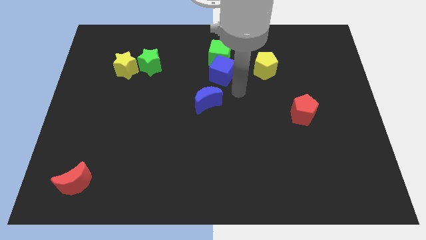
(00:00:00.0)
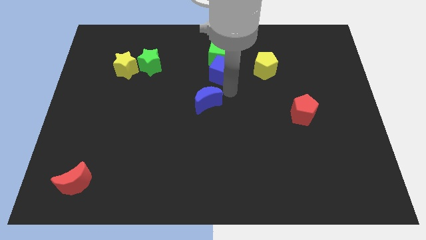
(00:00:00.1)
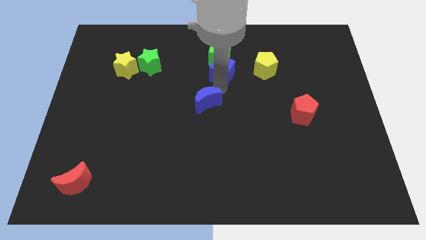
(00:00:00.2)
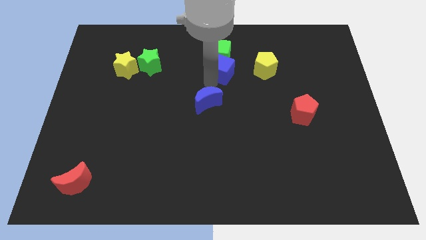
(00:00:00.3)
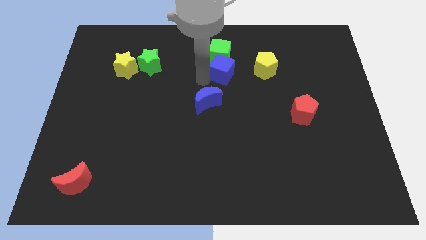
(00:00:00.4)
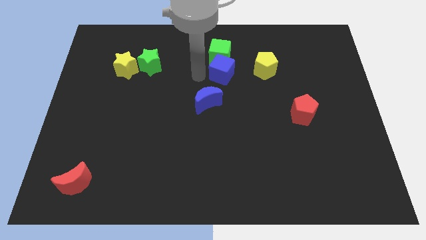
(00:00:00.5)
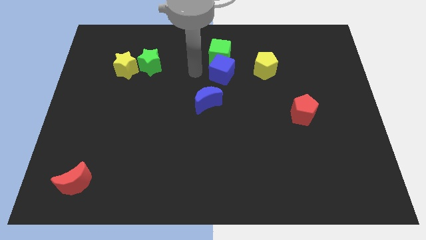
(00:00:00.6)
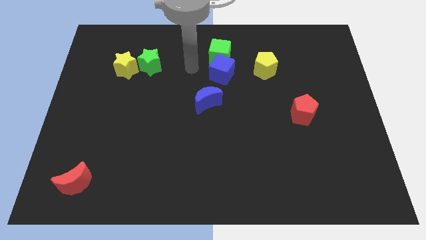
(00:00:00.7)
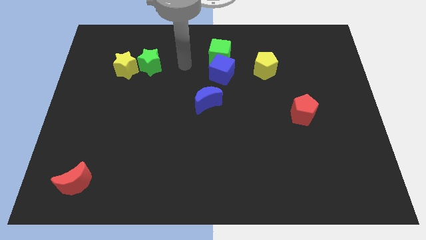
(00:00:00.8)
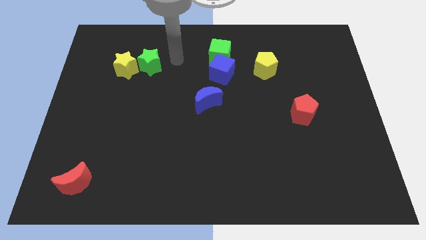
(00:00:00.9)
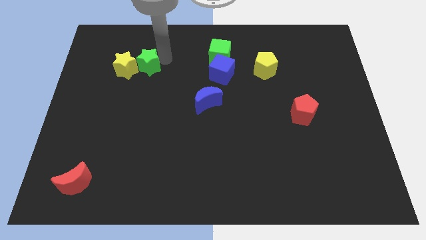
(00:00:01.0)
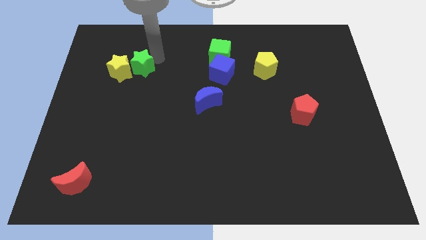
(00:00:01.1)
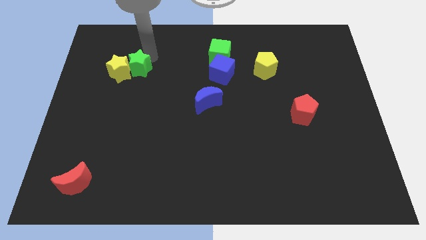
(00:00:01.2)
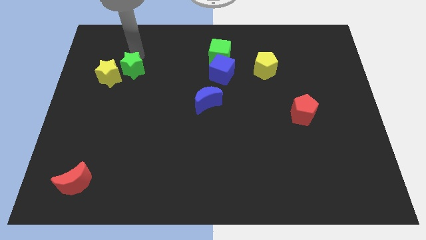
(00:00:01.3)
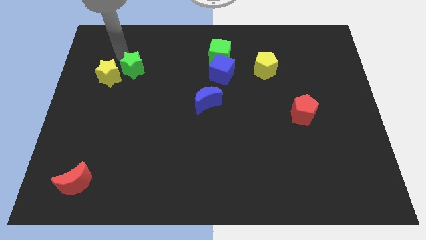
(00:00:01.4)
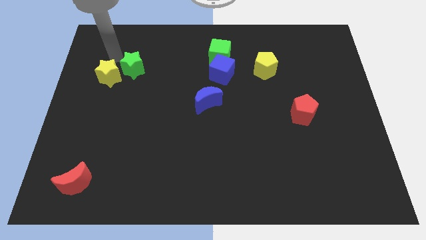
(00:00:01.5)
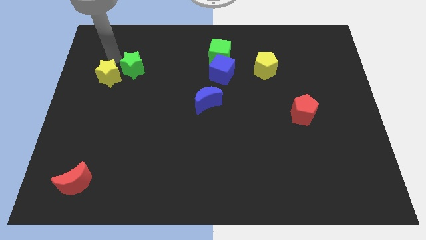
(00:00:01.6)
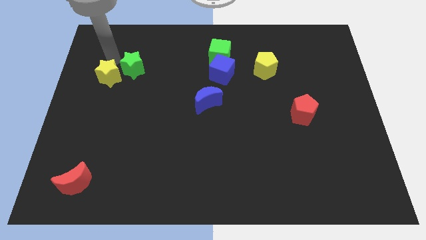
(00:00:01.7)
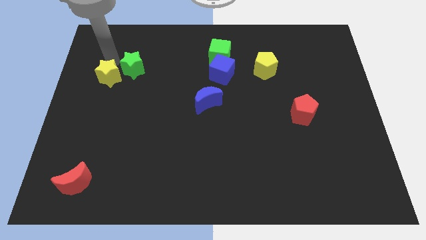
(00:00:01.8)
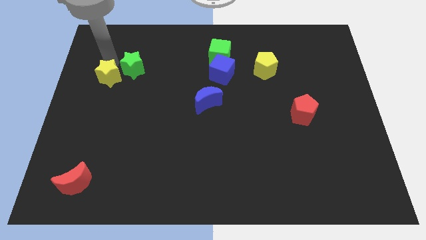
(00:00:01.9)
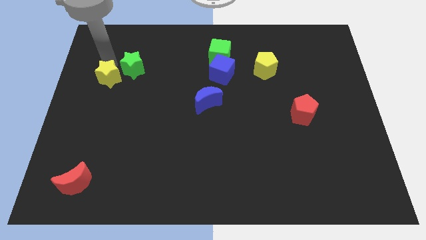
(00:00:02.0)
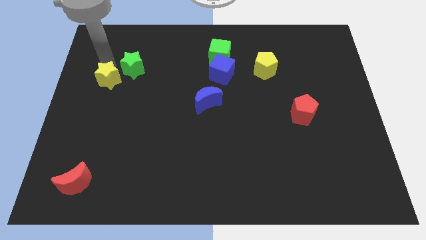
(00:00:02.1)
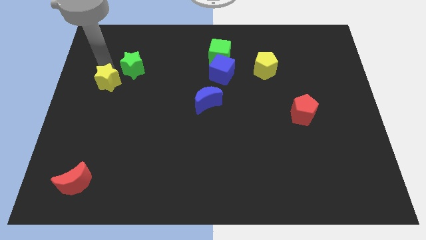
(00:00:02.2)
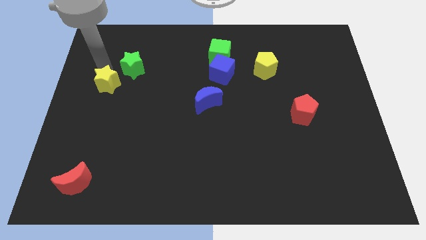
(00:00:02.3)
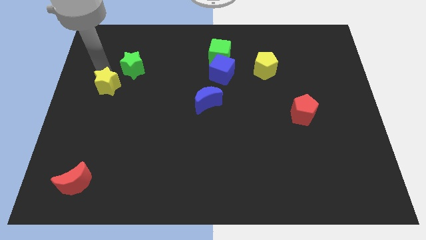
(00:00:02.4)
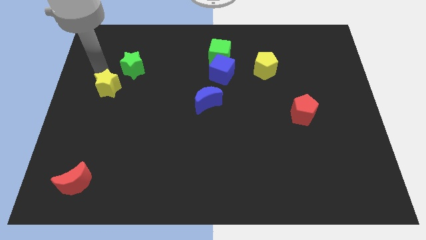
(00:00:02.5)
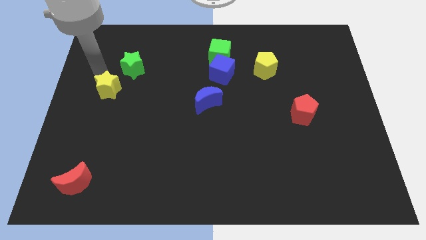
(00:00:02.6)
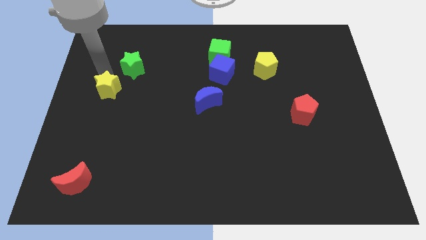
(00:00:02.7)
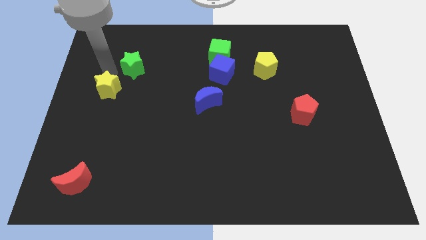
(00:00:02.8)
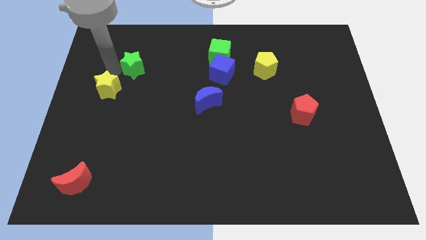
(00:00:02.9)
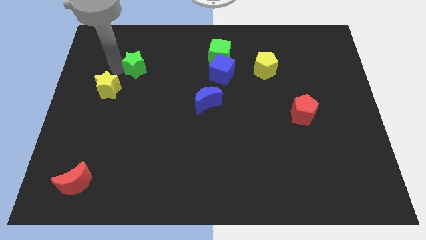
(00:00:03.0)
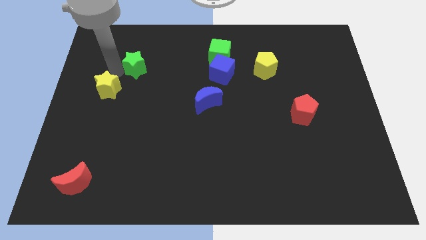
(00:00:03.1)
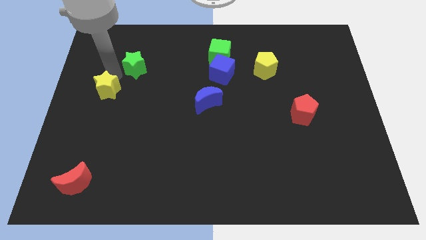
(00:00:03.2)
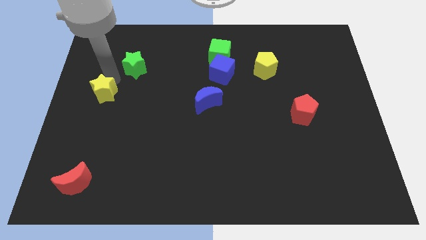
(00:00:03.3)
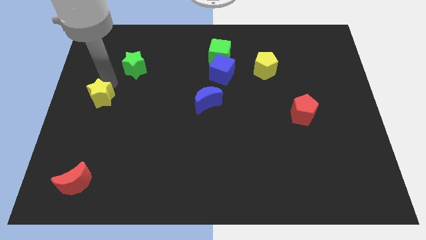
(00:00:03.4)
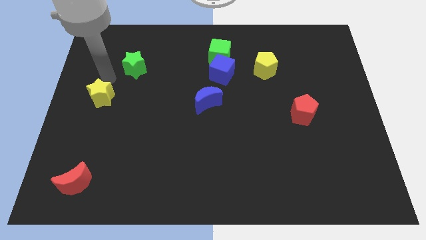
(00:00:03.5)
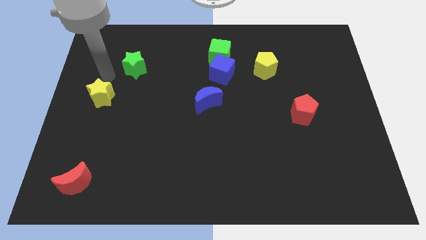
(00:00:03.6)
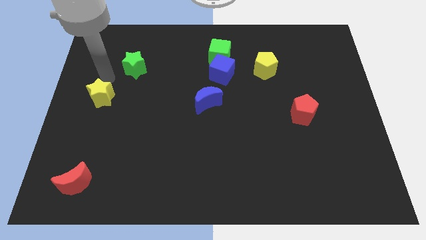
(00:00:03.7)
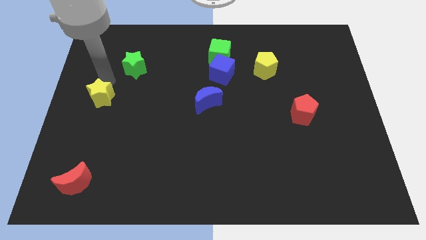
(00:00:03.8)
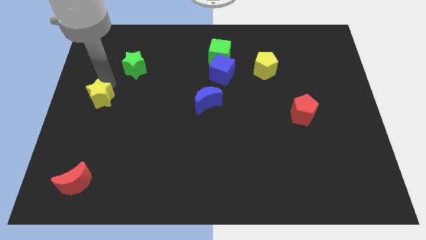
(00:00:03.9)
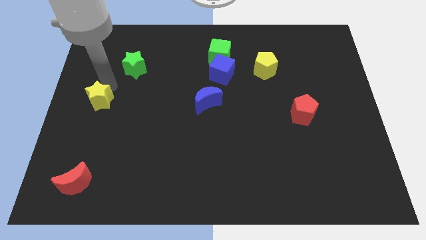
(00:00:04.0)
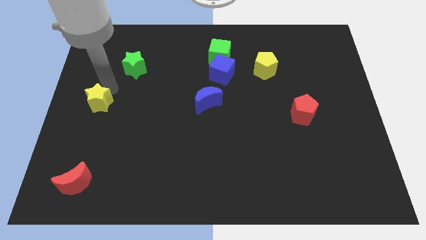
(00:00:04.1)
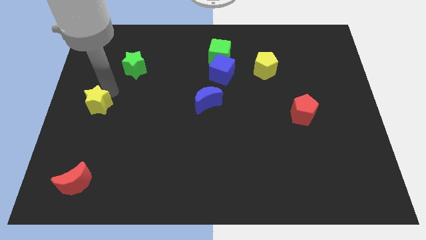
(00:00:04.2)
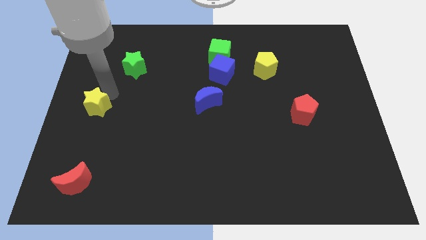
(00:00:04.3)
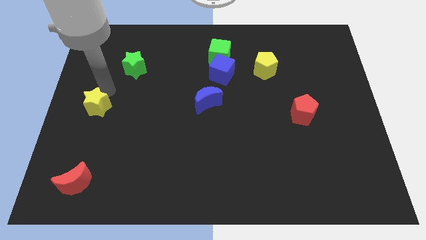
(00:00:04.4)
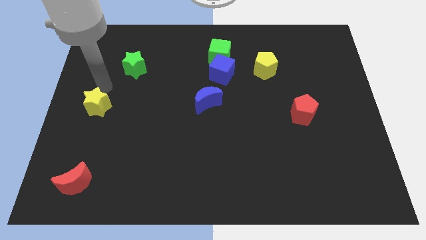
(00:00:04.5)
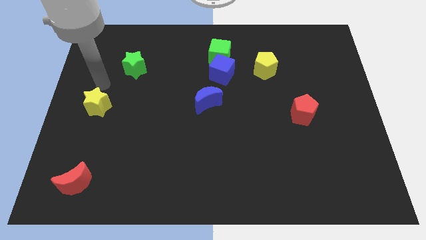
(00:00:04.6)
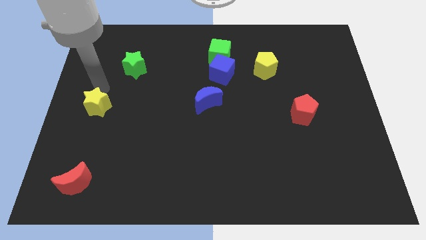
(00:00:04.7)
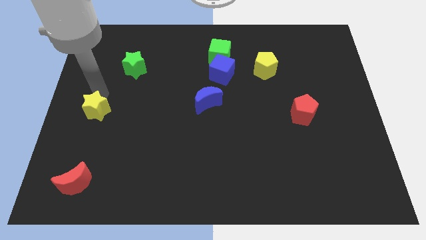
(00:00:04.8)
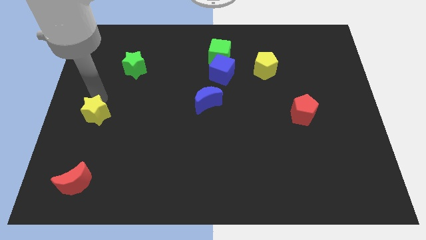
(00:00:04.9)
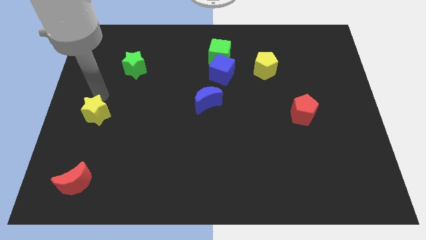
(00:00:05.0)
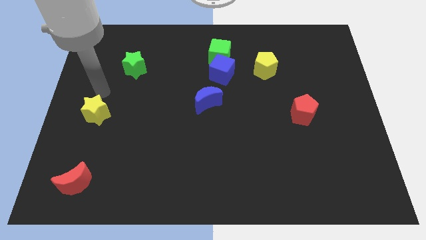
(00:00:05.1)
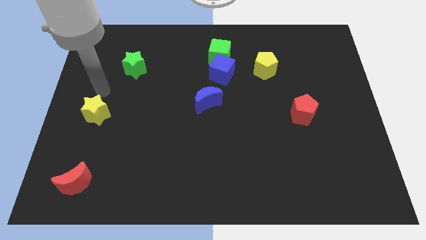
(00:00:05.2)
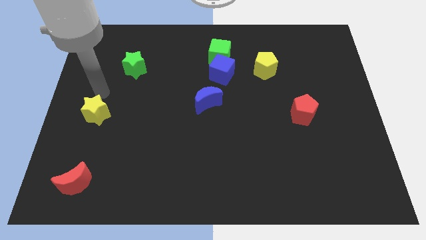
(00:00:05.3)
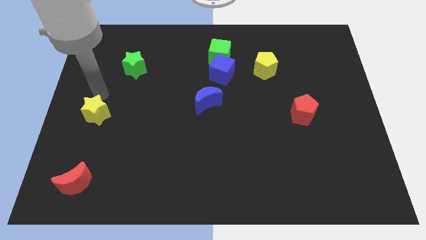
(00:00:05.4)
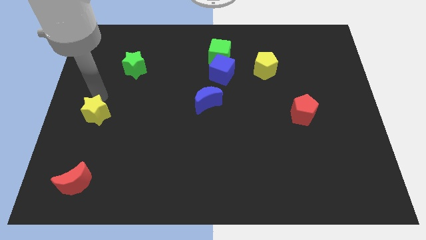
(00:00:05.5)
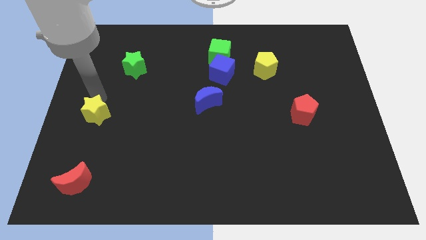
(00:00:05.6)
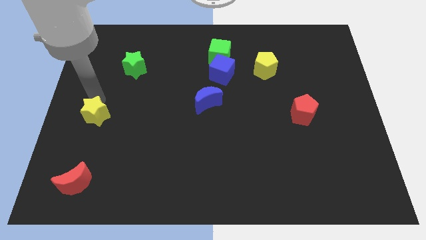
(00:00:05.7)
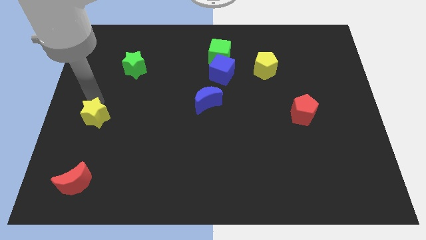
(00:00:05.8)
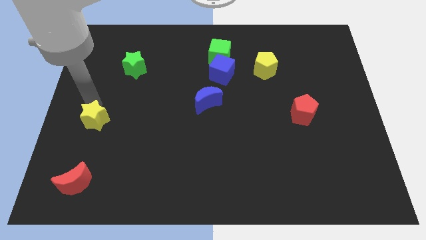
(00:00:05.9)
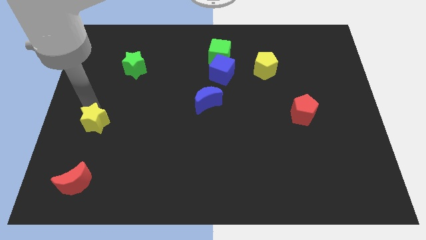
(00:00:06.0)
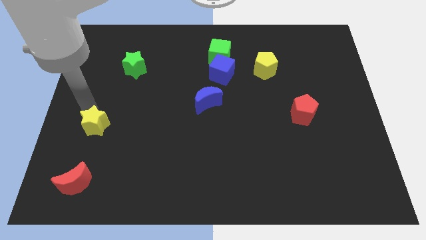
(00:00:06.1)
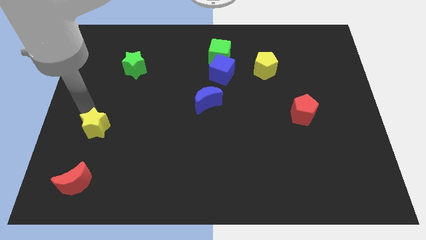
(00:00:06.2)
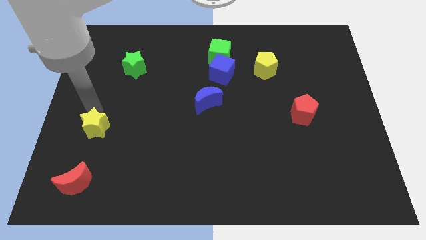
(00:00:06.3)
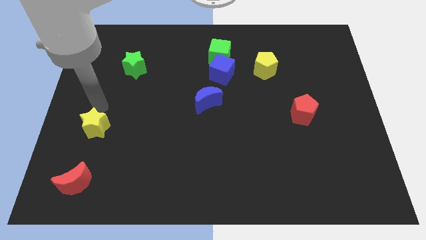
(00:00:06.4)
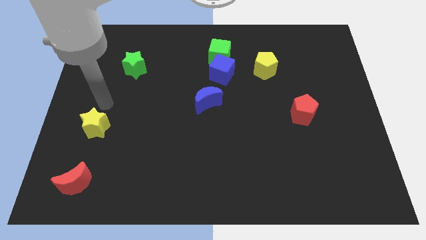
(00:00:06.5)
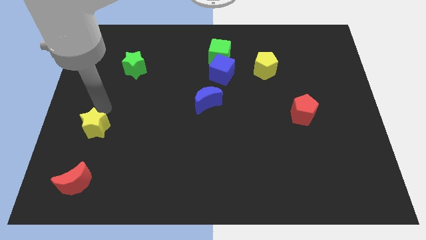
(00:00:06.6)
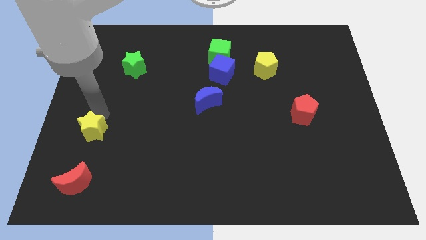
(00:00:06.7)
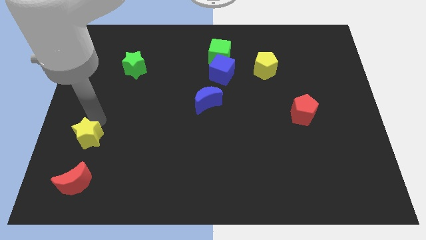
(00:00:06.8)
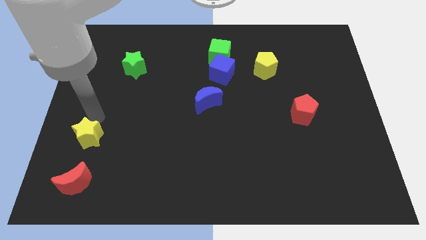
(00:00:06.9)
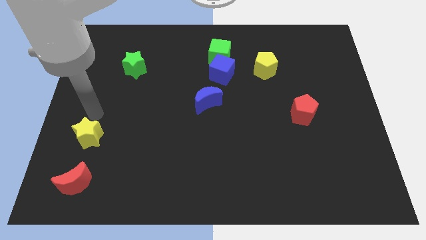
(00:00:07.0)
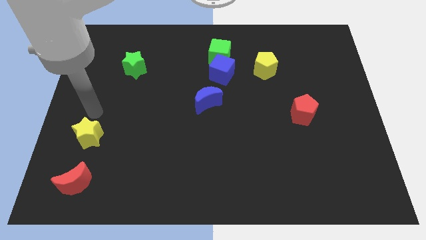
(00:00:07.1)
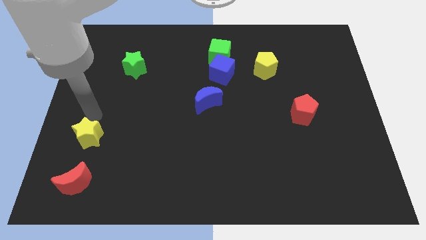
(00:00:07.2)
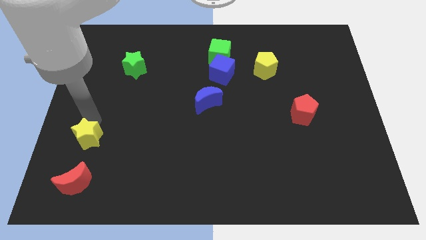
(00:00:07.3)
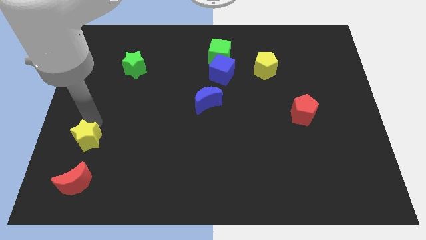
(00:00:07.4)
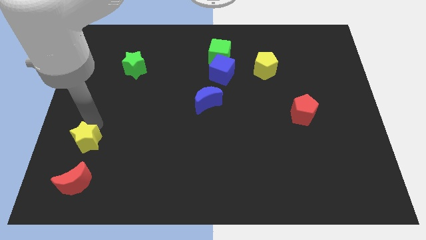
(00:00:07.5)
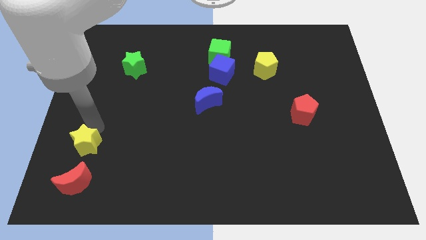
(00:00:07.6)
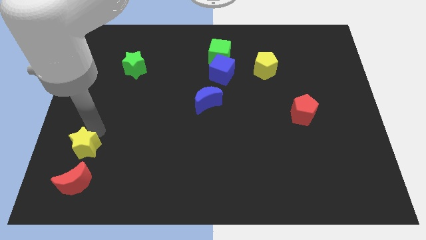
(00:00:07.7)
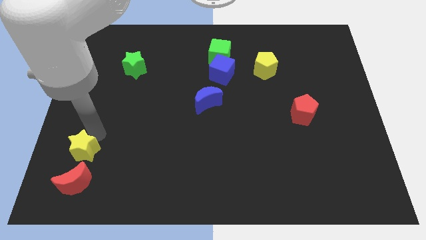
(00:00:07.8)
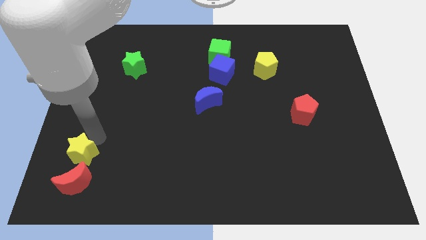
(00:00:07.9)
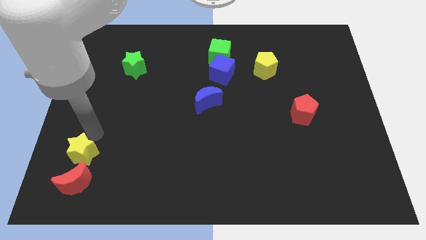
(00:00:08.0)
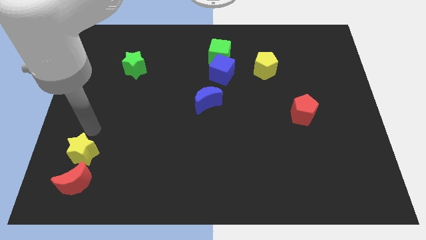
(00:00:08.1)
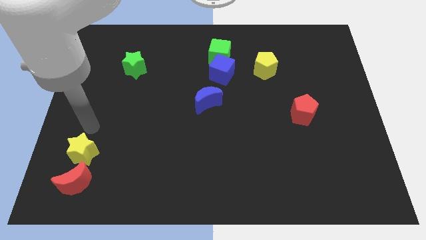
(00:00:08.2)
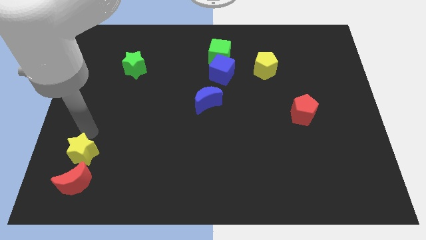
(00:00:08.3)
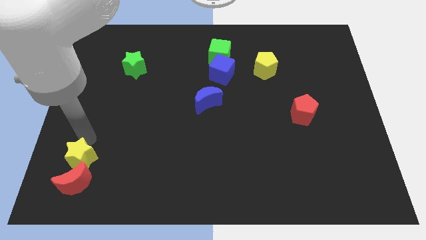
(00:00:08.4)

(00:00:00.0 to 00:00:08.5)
push the yellow star next to the red moon
